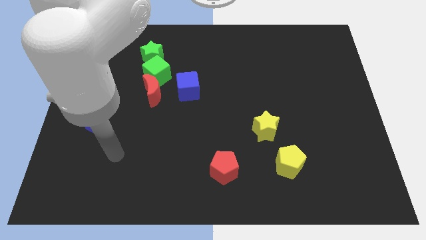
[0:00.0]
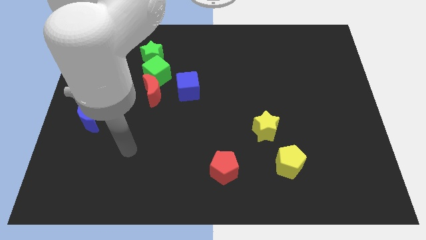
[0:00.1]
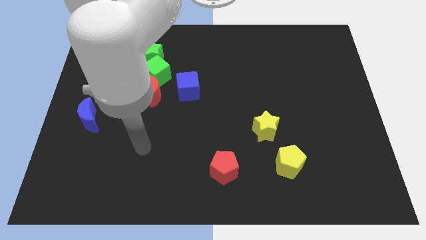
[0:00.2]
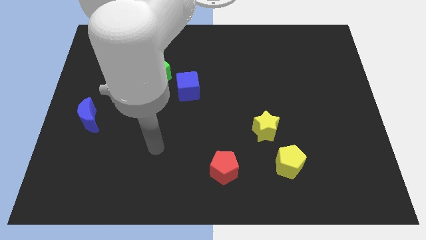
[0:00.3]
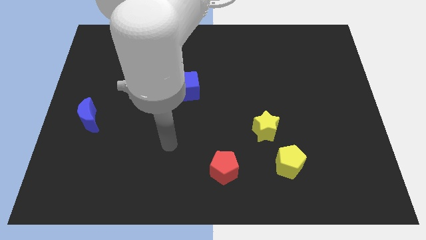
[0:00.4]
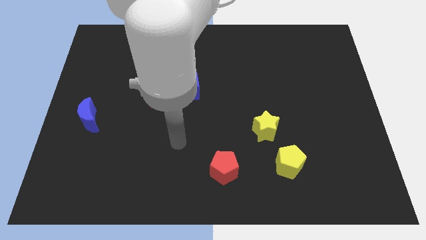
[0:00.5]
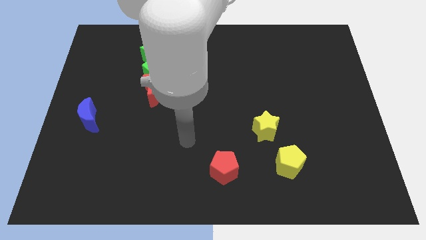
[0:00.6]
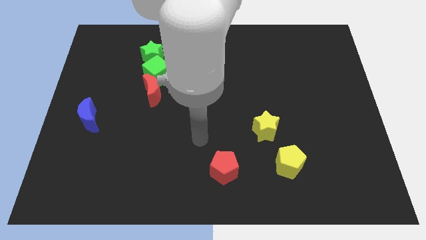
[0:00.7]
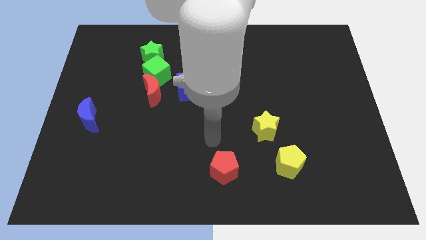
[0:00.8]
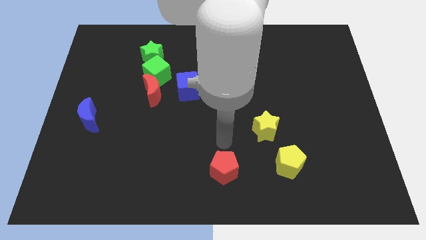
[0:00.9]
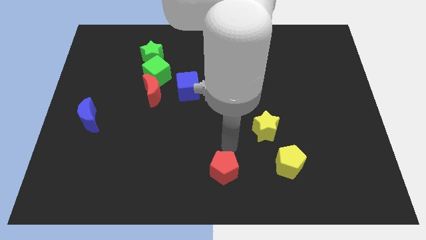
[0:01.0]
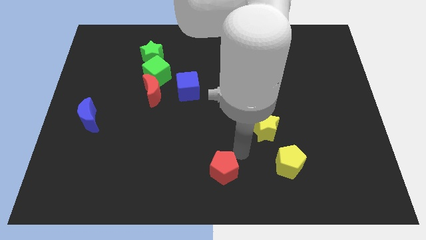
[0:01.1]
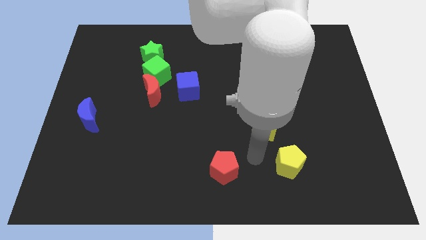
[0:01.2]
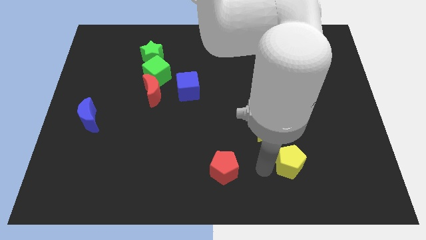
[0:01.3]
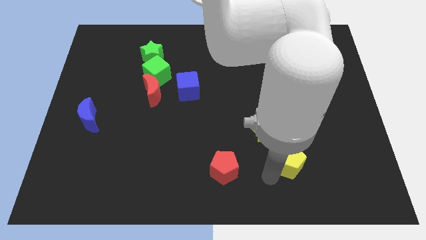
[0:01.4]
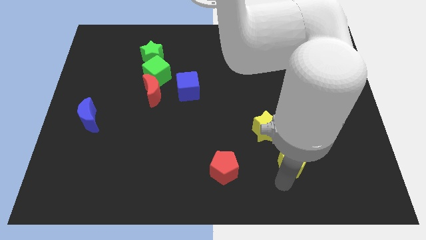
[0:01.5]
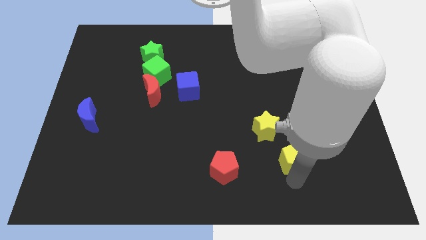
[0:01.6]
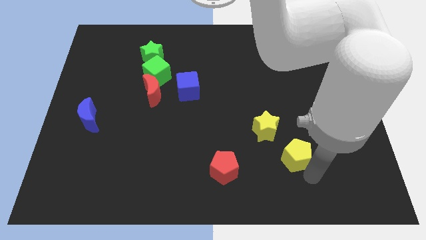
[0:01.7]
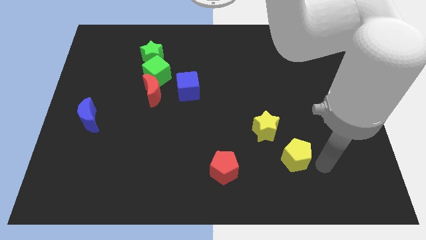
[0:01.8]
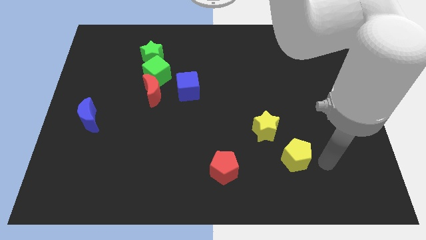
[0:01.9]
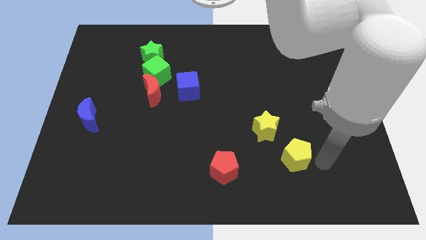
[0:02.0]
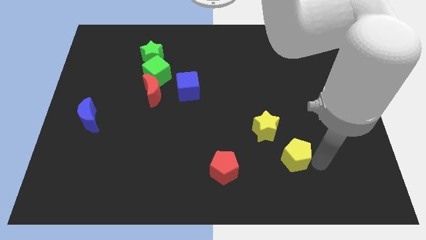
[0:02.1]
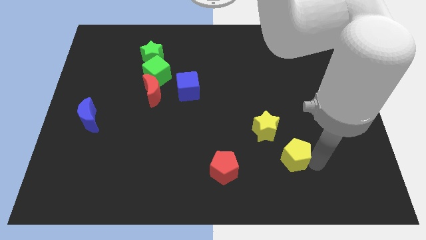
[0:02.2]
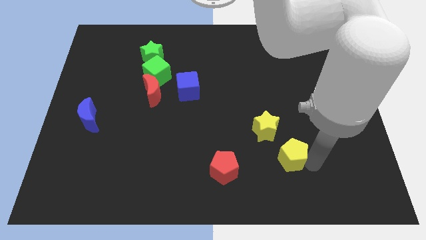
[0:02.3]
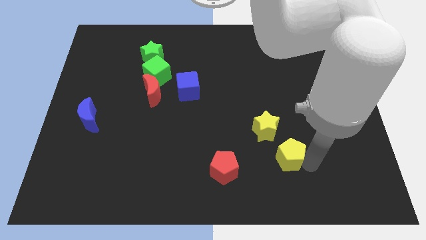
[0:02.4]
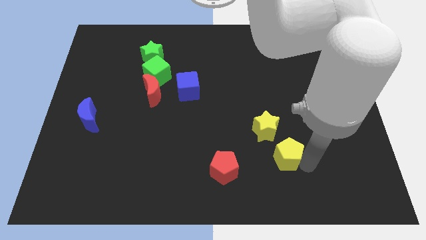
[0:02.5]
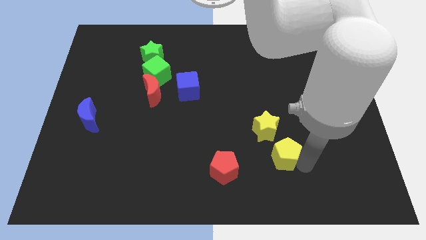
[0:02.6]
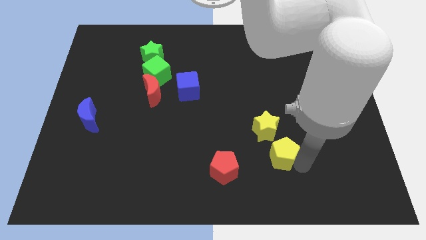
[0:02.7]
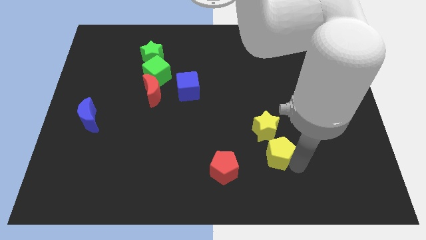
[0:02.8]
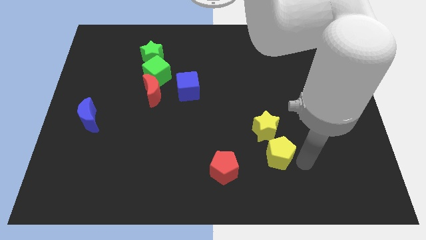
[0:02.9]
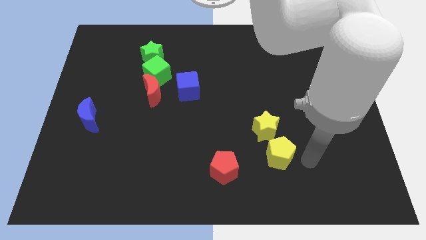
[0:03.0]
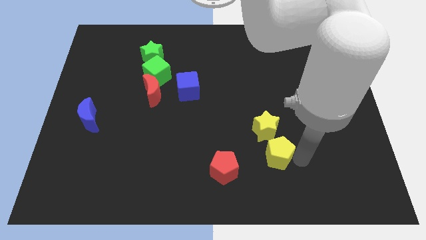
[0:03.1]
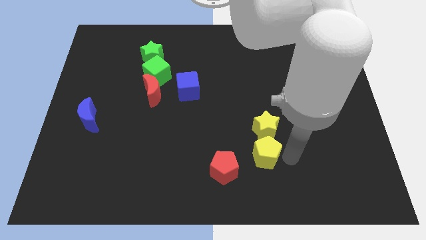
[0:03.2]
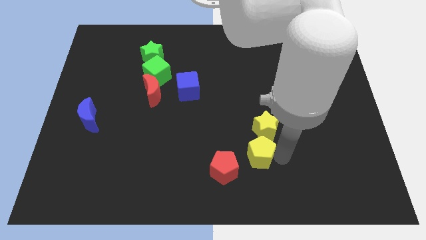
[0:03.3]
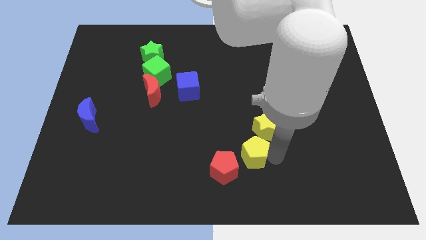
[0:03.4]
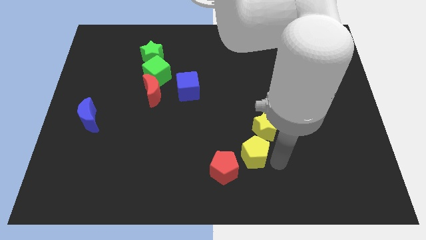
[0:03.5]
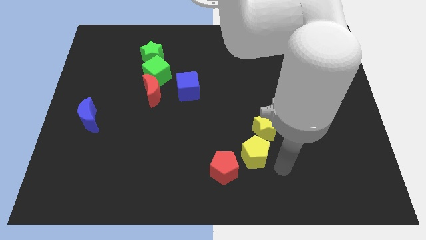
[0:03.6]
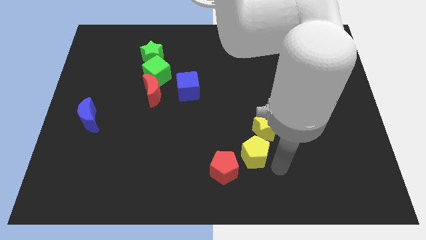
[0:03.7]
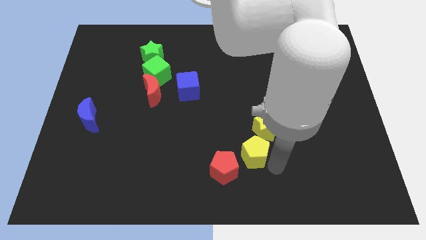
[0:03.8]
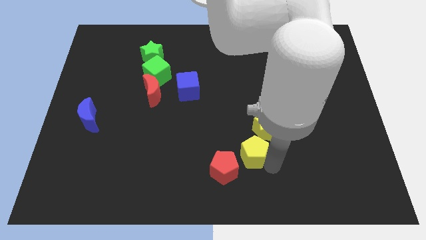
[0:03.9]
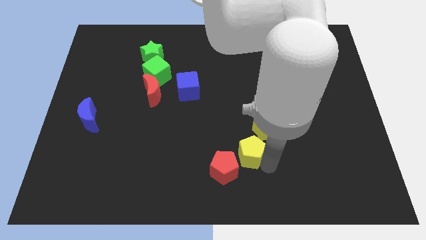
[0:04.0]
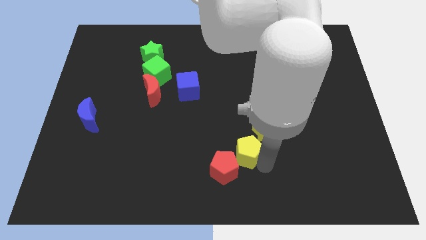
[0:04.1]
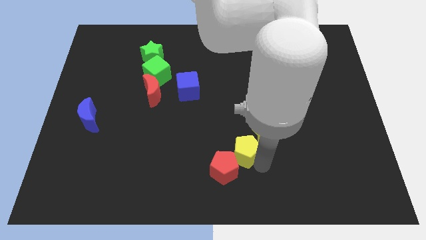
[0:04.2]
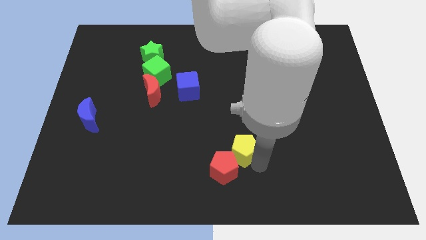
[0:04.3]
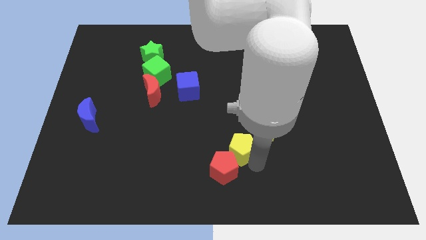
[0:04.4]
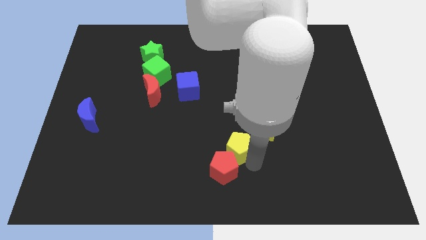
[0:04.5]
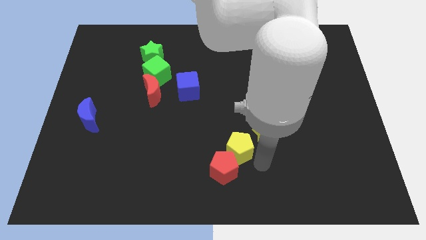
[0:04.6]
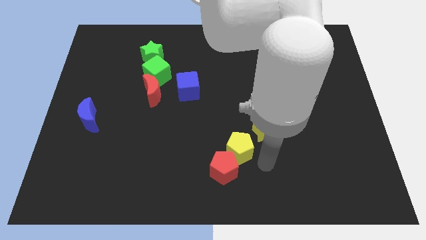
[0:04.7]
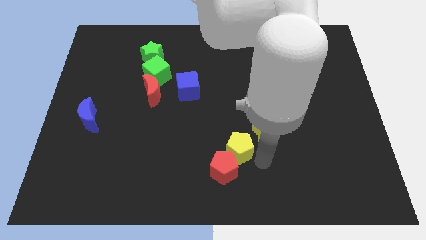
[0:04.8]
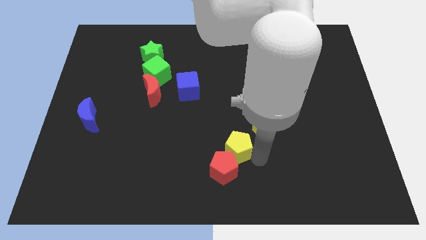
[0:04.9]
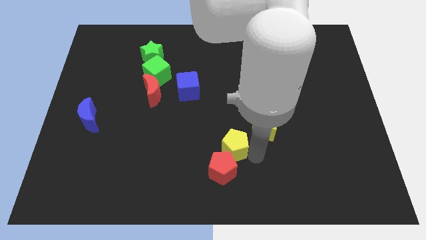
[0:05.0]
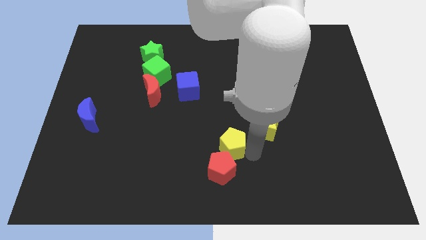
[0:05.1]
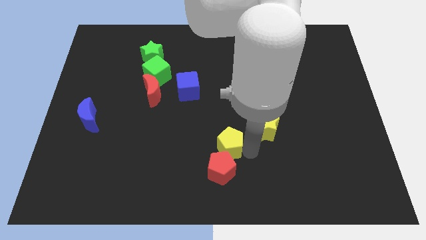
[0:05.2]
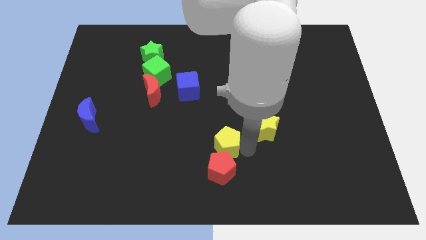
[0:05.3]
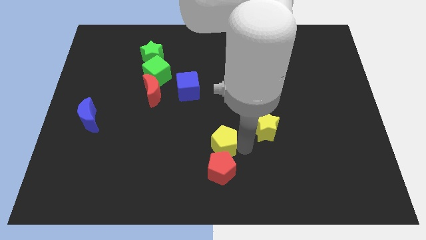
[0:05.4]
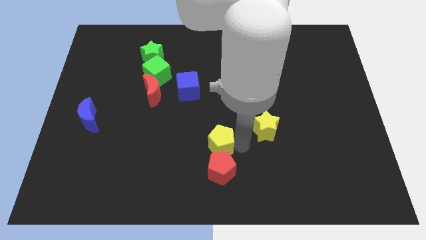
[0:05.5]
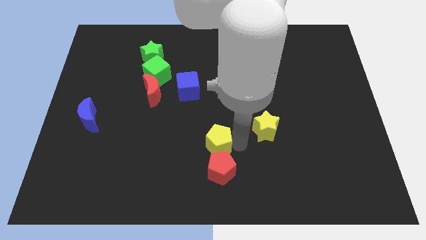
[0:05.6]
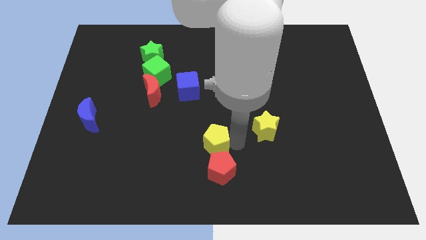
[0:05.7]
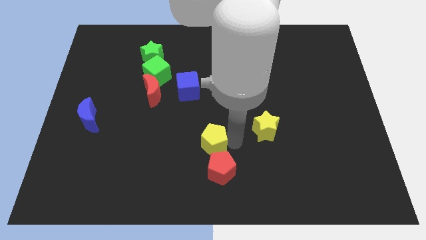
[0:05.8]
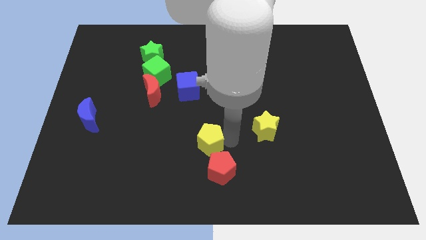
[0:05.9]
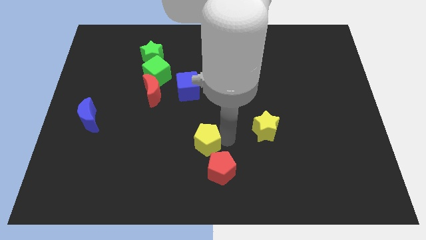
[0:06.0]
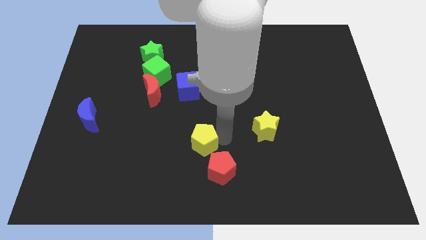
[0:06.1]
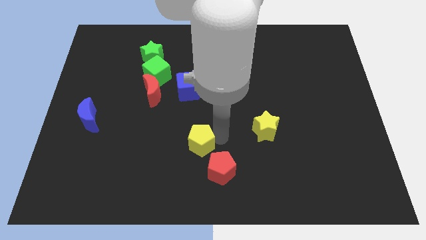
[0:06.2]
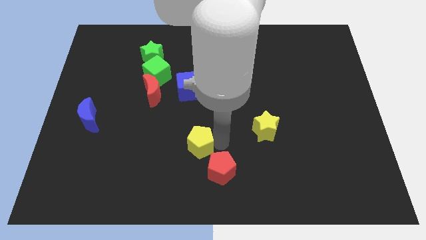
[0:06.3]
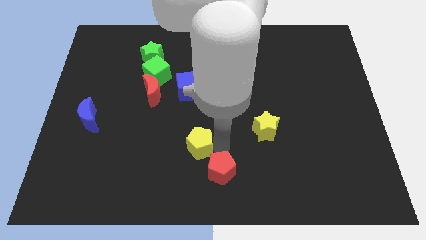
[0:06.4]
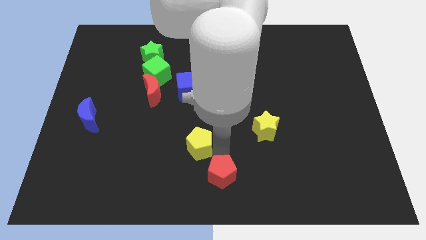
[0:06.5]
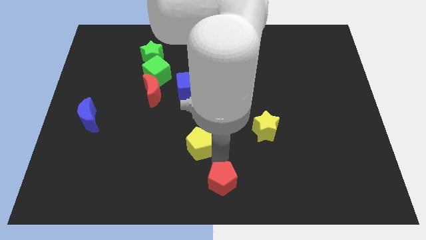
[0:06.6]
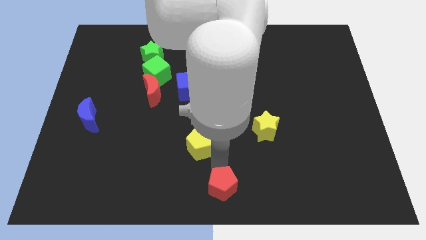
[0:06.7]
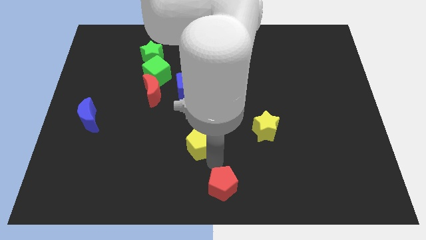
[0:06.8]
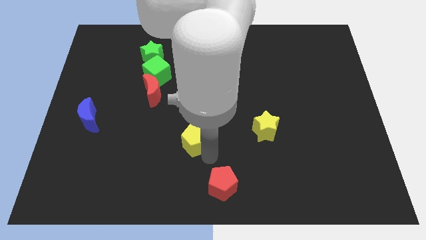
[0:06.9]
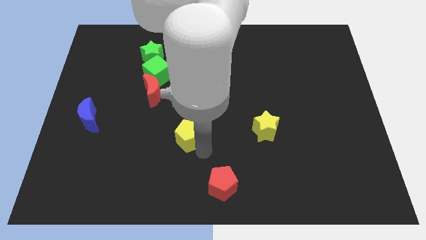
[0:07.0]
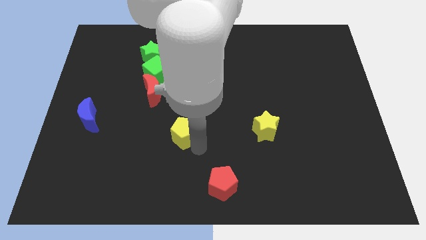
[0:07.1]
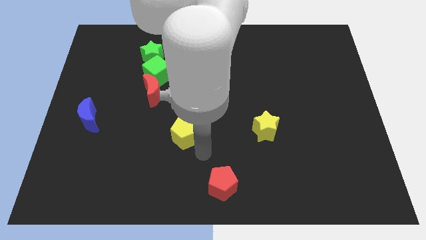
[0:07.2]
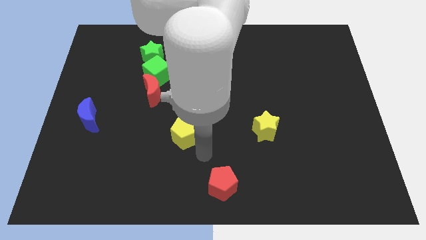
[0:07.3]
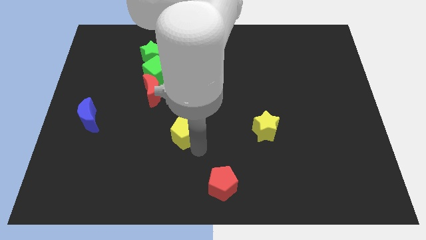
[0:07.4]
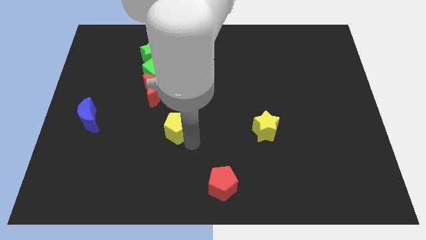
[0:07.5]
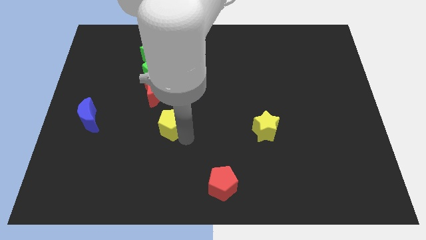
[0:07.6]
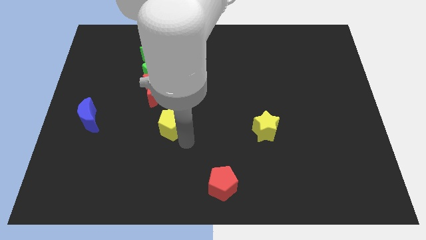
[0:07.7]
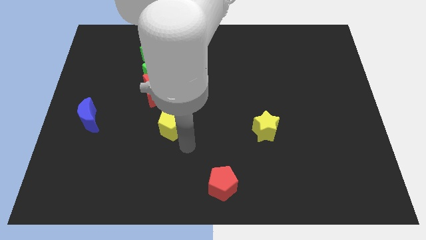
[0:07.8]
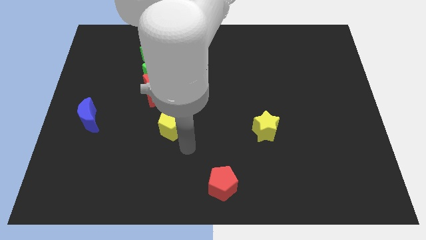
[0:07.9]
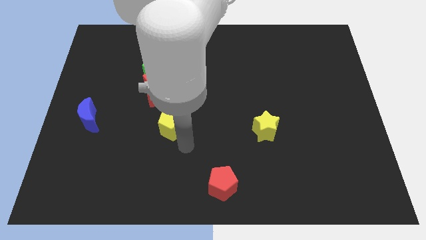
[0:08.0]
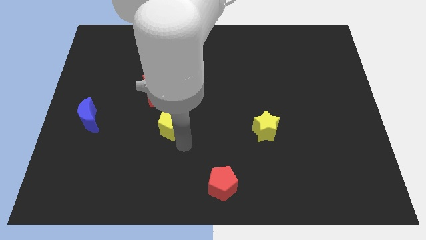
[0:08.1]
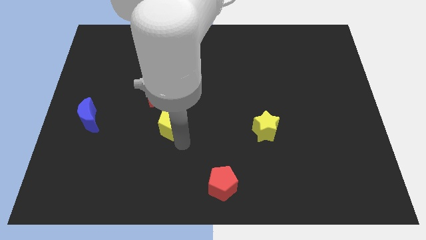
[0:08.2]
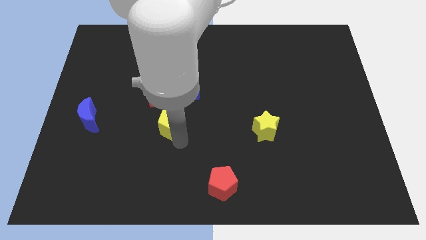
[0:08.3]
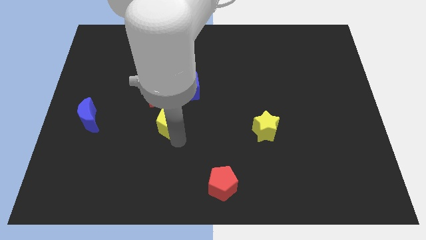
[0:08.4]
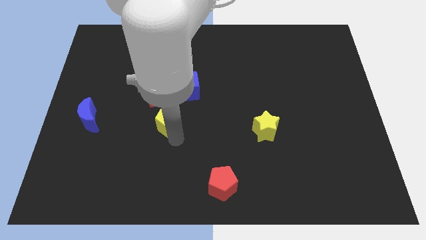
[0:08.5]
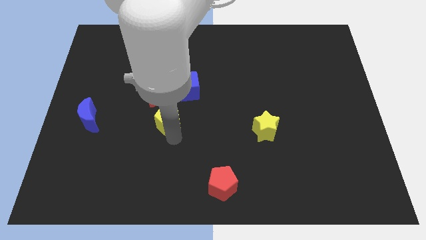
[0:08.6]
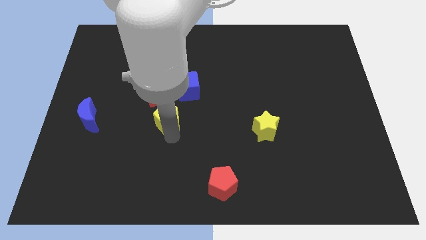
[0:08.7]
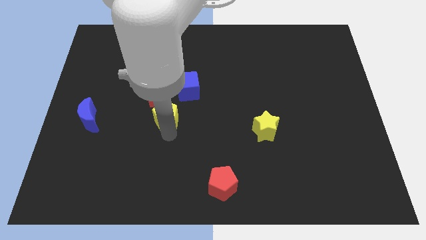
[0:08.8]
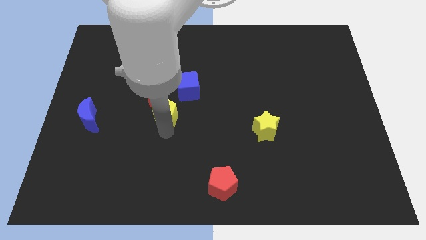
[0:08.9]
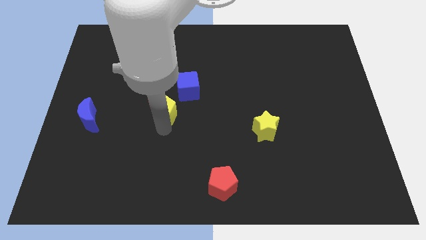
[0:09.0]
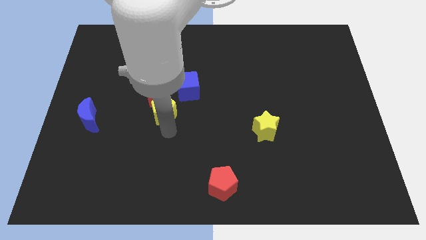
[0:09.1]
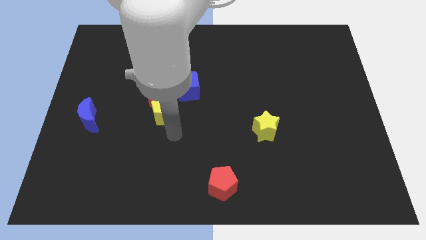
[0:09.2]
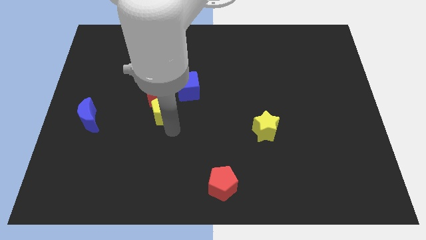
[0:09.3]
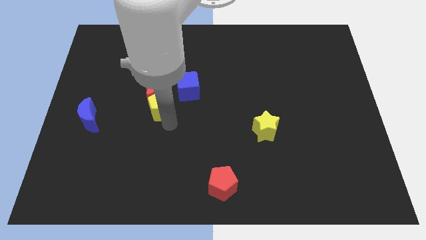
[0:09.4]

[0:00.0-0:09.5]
slide the yellow pentagon next to the red moon
